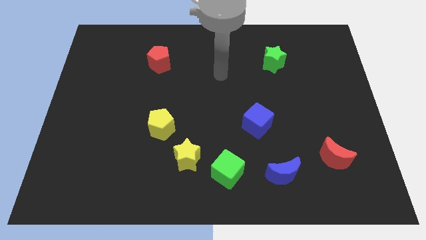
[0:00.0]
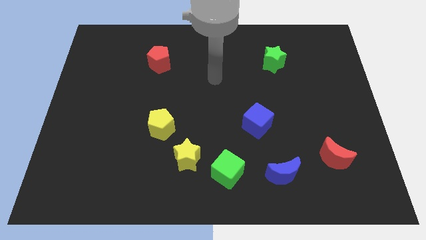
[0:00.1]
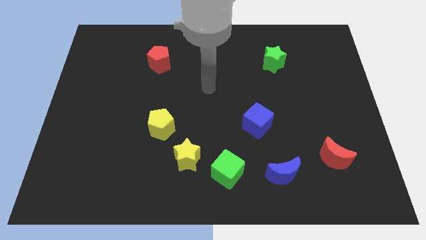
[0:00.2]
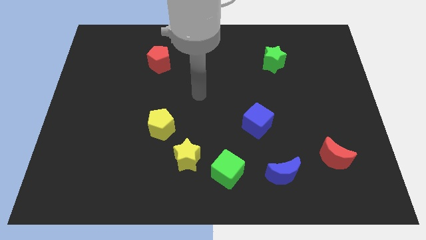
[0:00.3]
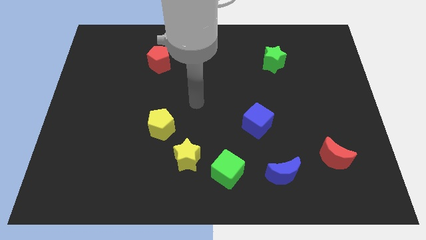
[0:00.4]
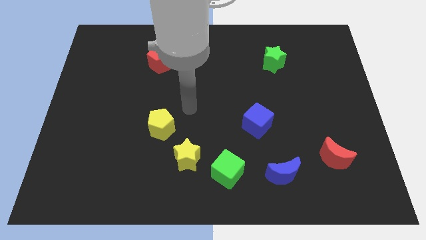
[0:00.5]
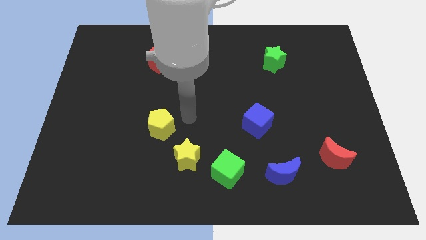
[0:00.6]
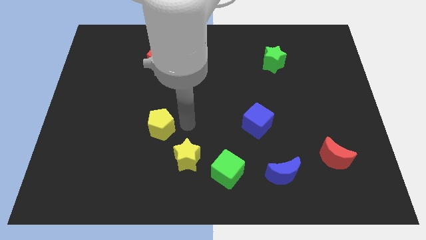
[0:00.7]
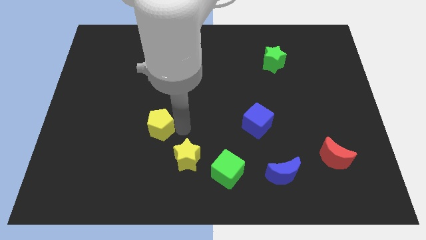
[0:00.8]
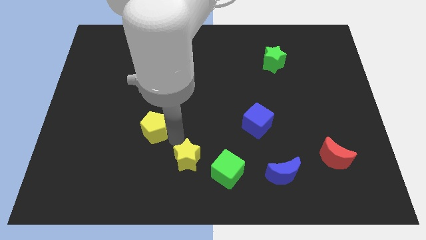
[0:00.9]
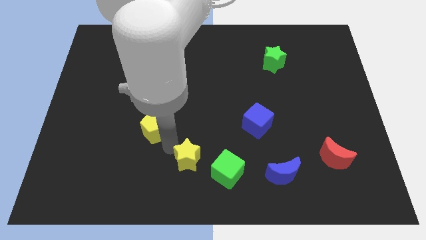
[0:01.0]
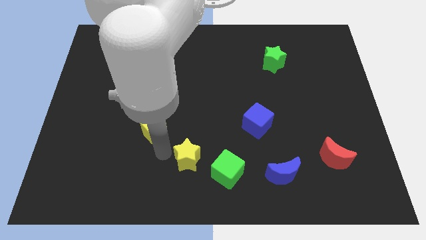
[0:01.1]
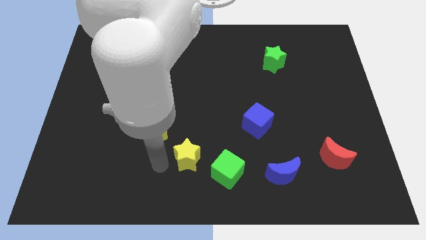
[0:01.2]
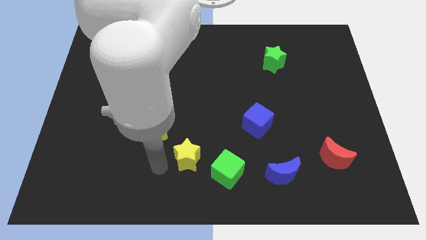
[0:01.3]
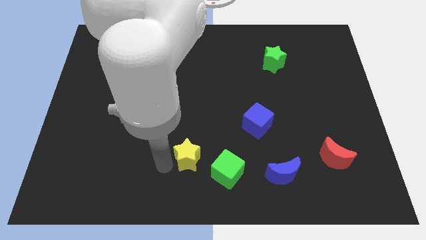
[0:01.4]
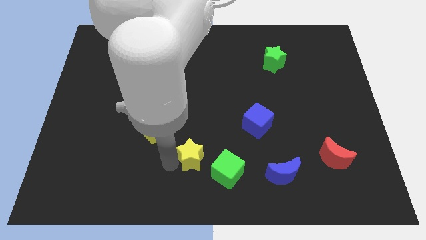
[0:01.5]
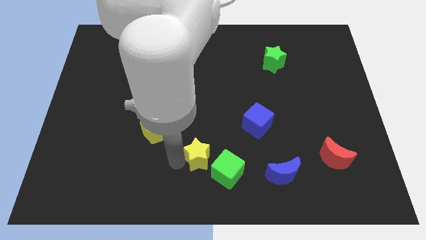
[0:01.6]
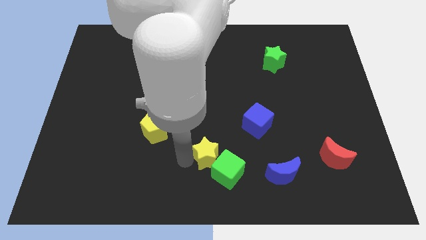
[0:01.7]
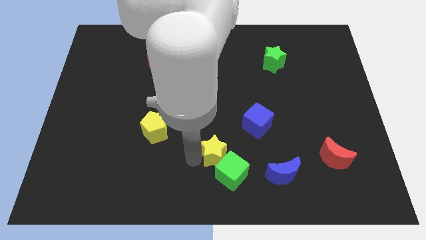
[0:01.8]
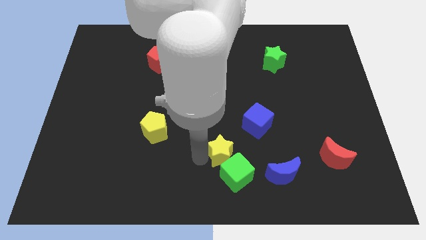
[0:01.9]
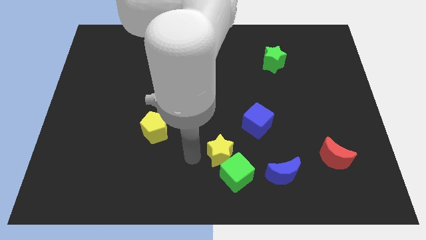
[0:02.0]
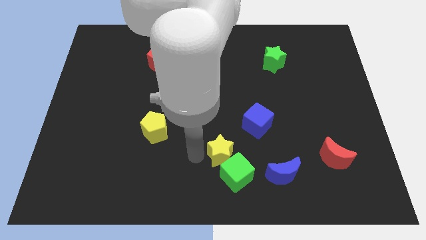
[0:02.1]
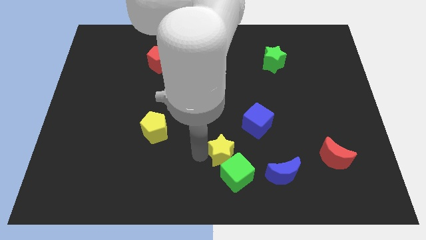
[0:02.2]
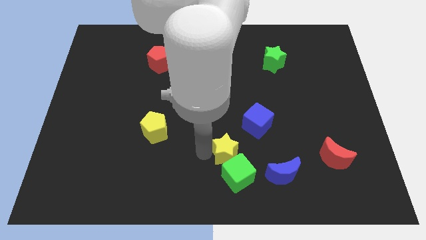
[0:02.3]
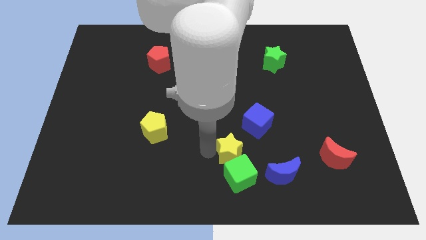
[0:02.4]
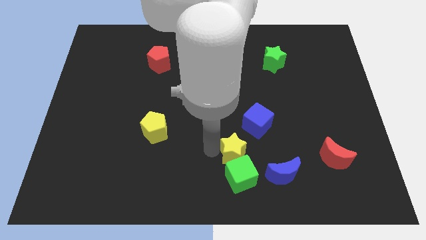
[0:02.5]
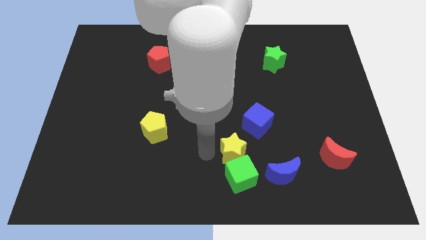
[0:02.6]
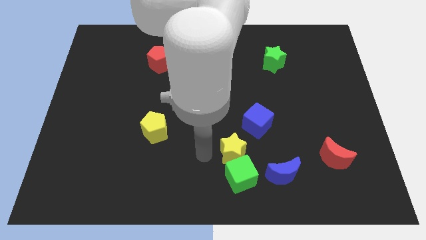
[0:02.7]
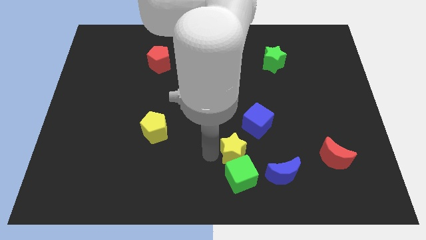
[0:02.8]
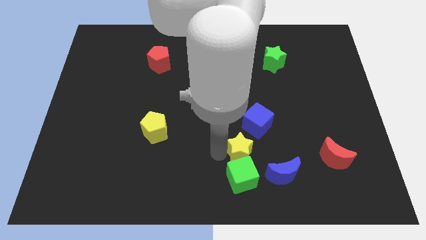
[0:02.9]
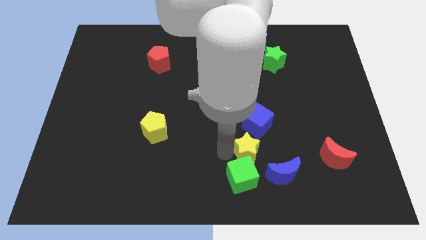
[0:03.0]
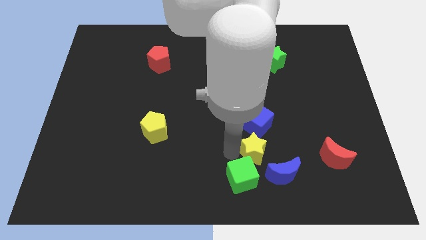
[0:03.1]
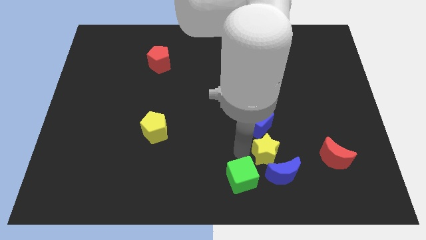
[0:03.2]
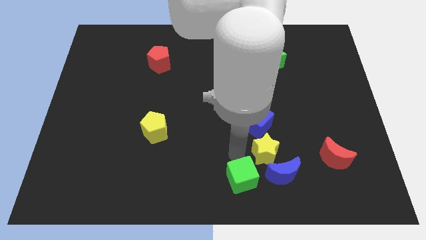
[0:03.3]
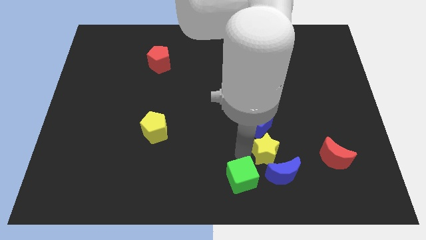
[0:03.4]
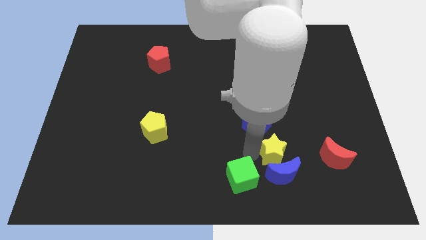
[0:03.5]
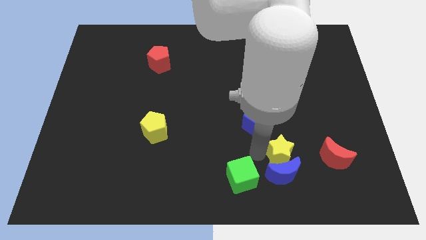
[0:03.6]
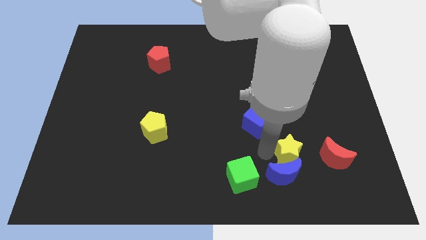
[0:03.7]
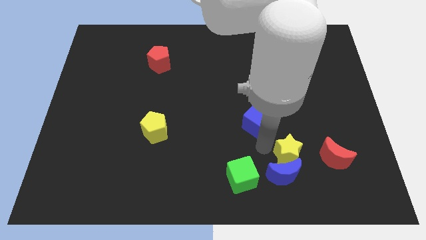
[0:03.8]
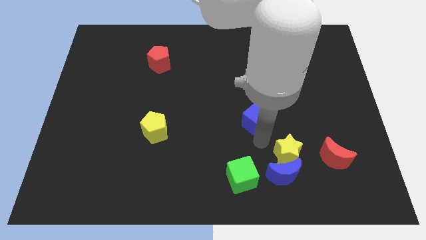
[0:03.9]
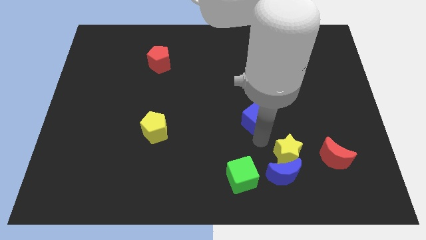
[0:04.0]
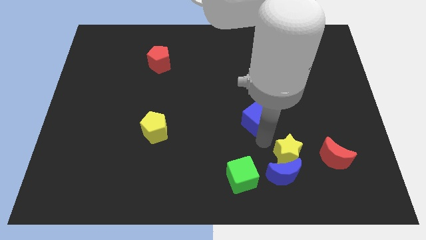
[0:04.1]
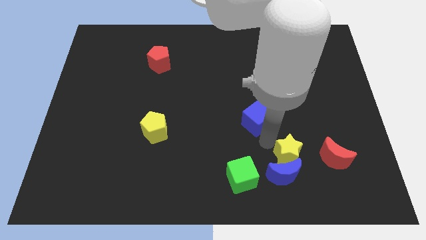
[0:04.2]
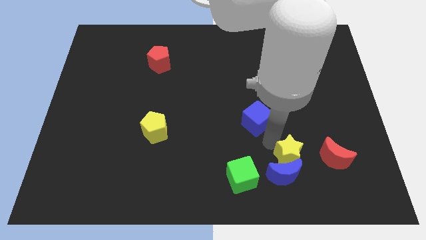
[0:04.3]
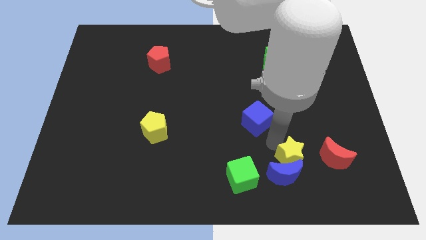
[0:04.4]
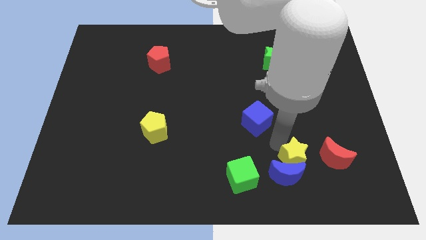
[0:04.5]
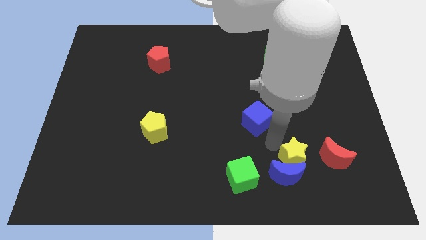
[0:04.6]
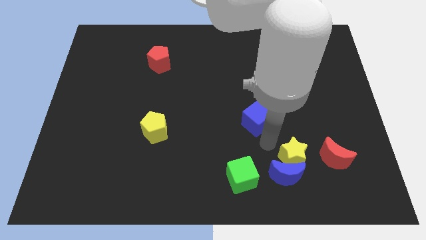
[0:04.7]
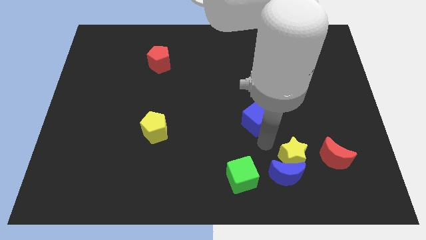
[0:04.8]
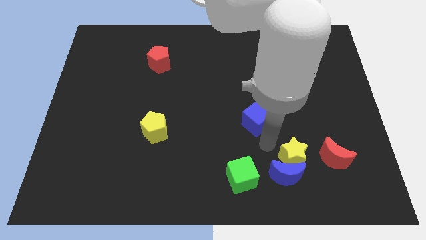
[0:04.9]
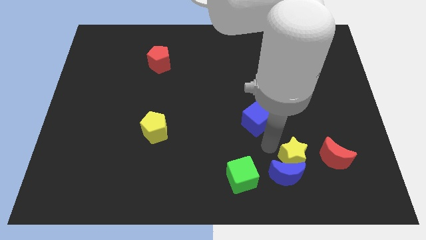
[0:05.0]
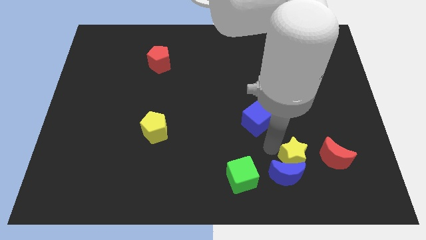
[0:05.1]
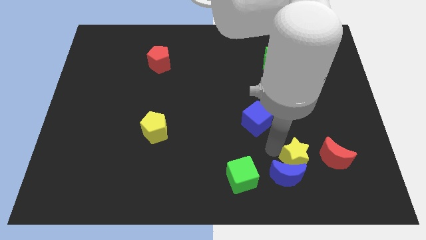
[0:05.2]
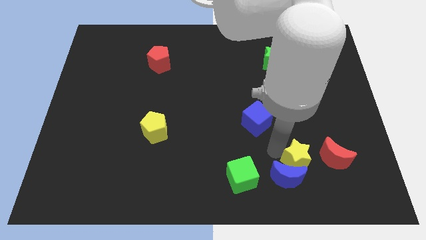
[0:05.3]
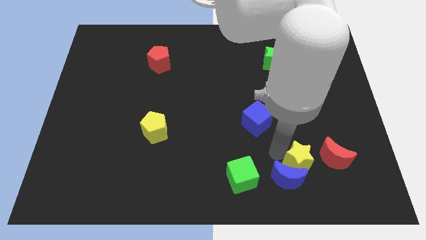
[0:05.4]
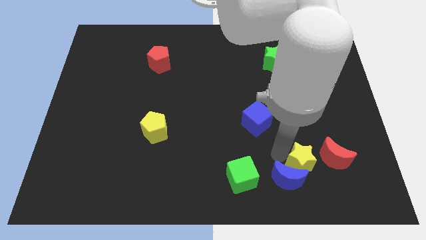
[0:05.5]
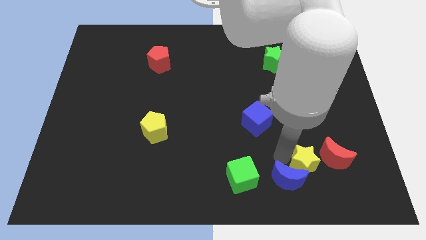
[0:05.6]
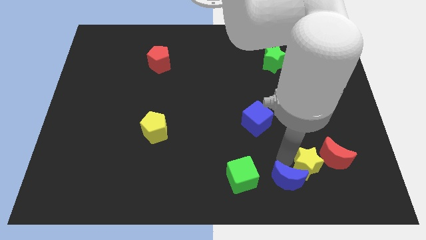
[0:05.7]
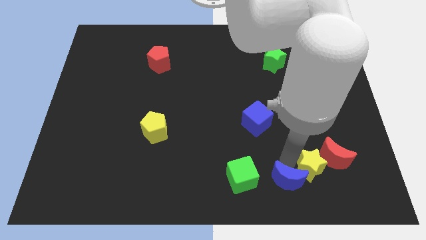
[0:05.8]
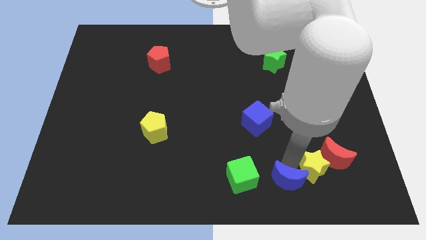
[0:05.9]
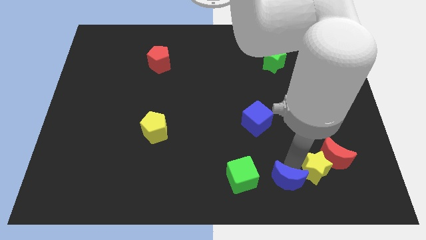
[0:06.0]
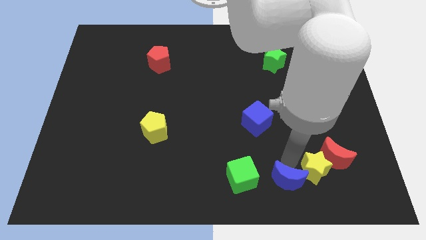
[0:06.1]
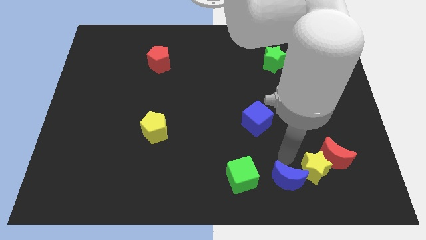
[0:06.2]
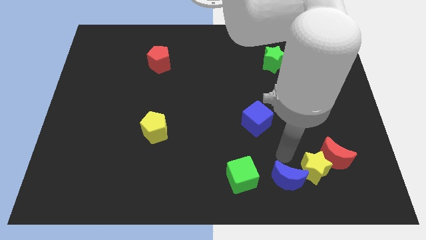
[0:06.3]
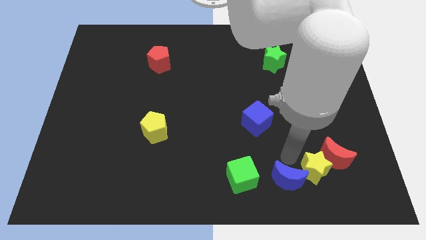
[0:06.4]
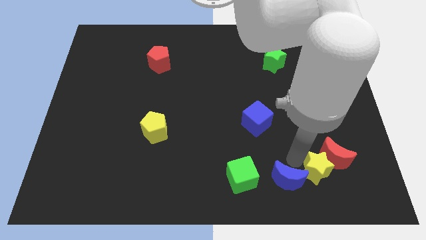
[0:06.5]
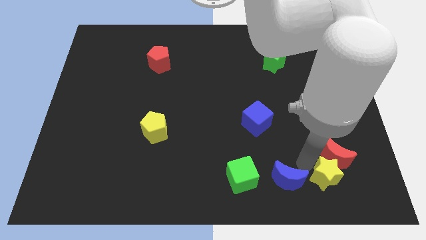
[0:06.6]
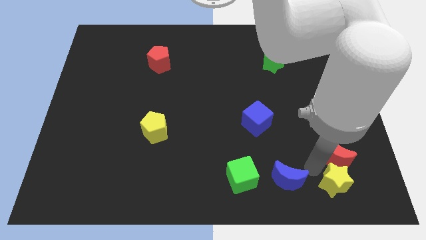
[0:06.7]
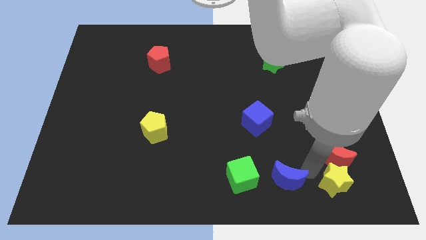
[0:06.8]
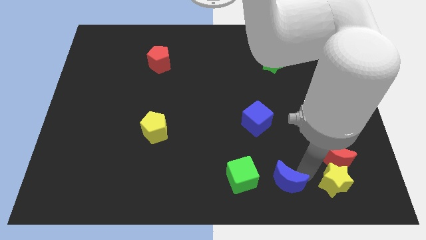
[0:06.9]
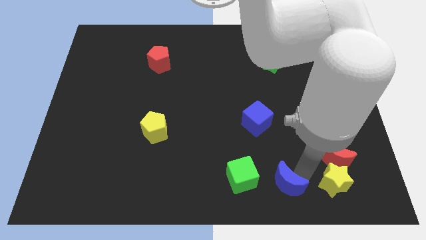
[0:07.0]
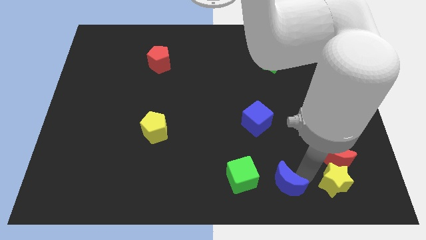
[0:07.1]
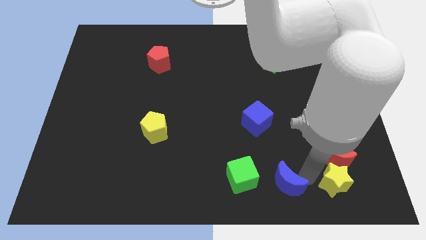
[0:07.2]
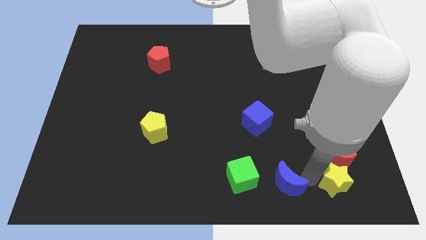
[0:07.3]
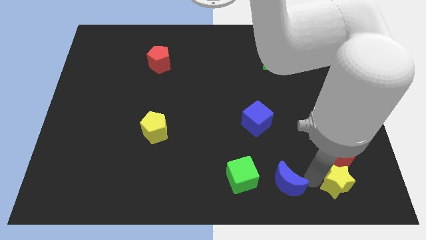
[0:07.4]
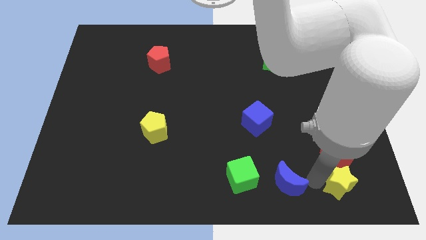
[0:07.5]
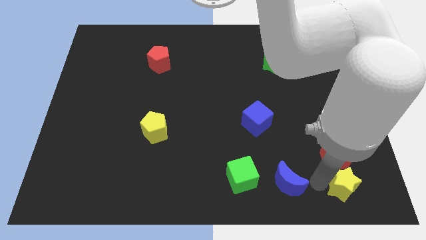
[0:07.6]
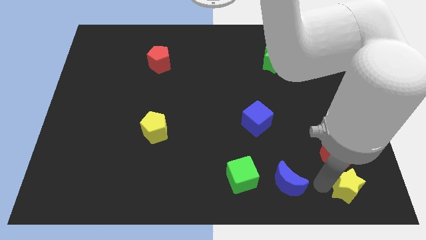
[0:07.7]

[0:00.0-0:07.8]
move the yellow star to the bottom right
